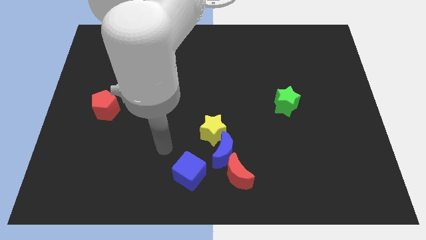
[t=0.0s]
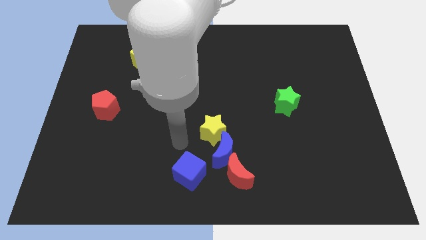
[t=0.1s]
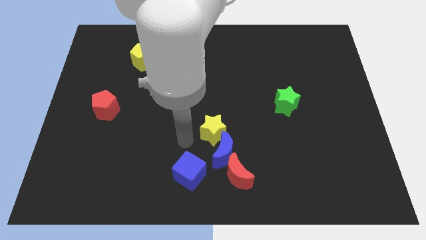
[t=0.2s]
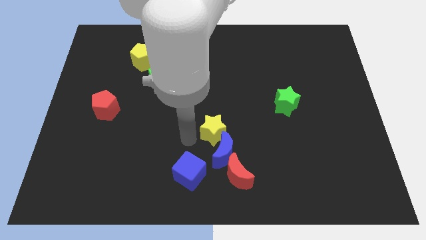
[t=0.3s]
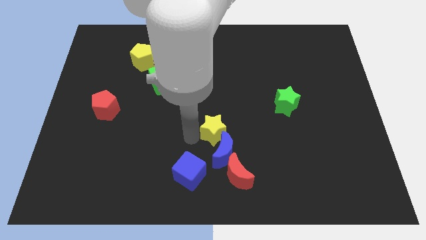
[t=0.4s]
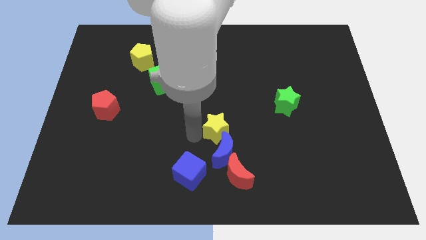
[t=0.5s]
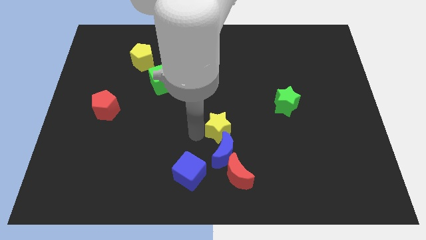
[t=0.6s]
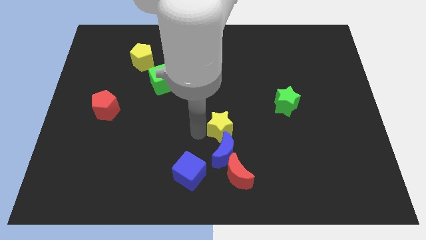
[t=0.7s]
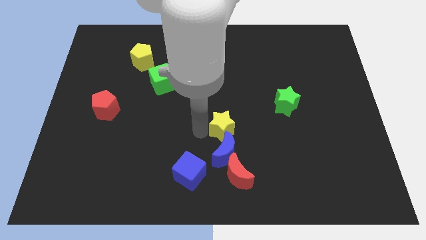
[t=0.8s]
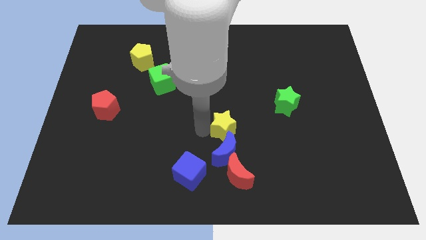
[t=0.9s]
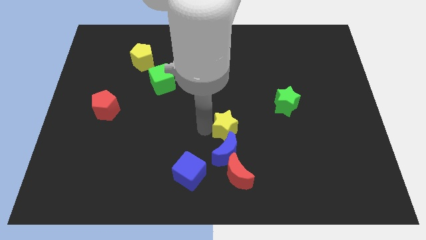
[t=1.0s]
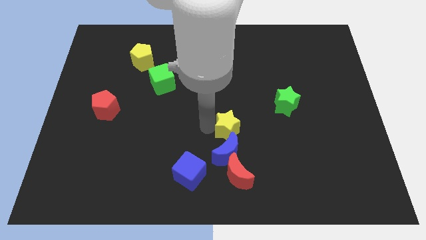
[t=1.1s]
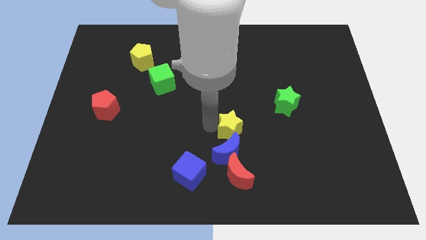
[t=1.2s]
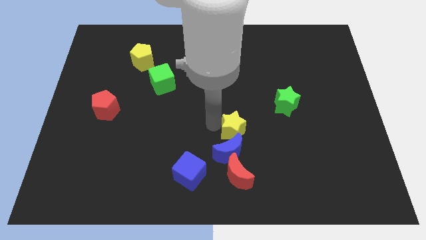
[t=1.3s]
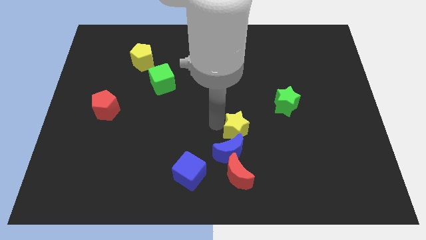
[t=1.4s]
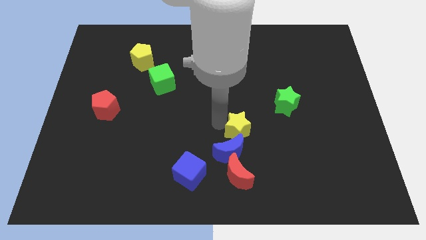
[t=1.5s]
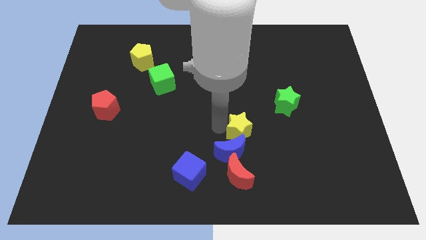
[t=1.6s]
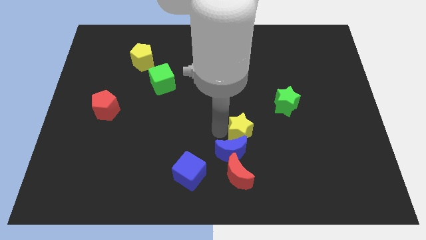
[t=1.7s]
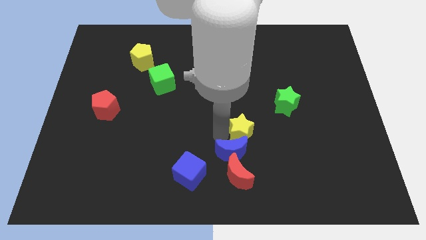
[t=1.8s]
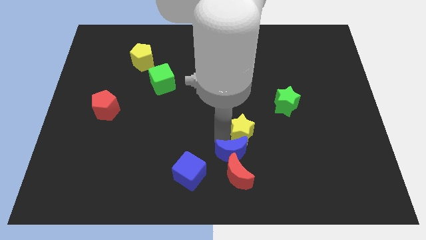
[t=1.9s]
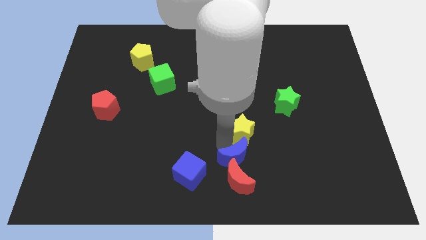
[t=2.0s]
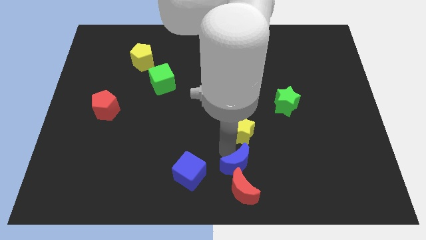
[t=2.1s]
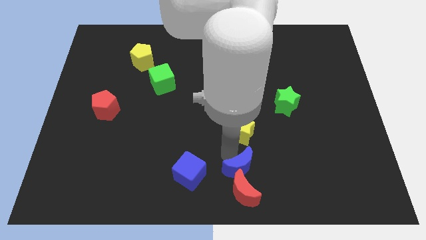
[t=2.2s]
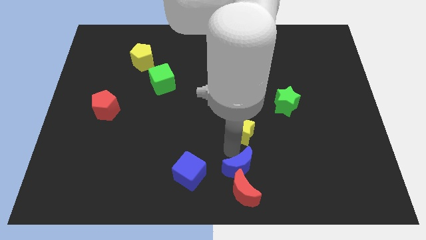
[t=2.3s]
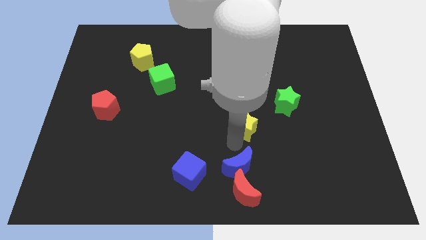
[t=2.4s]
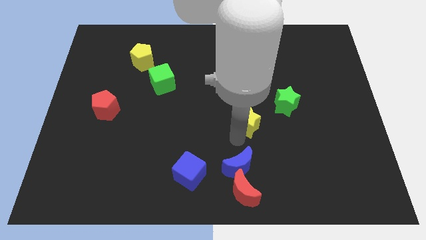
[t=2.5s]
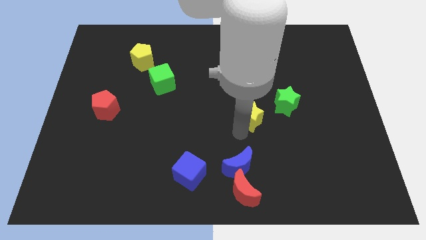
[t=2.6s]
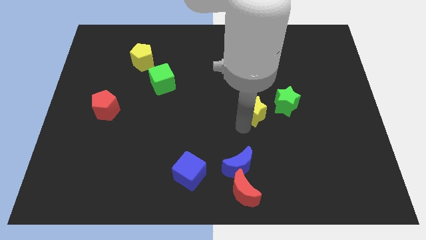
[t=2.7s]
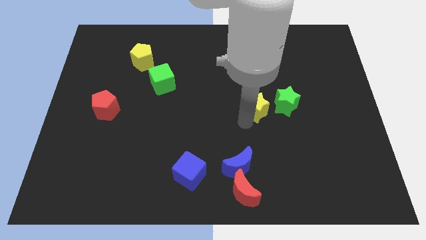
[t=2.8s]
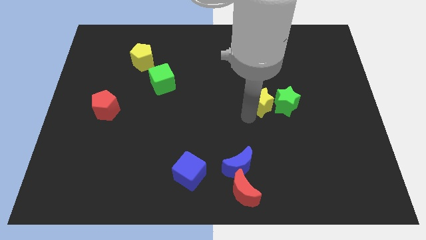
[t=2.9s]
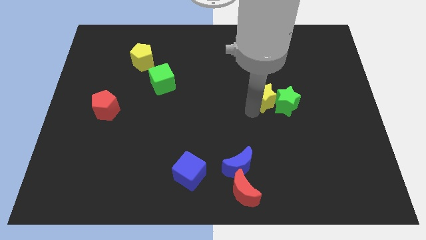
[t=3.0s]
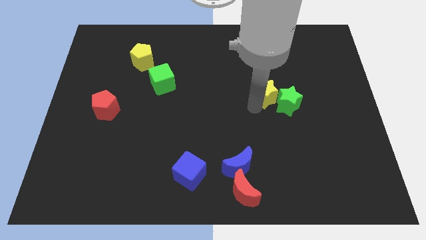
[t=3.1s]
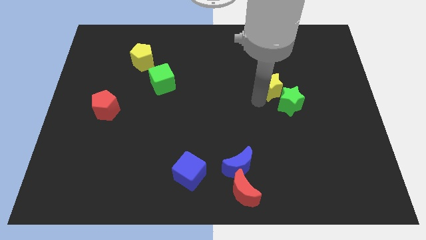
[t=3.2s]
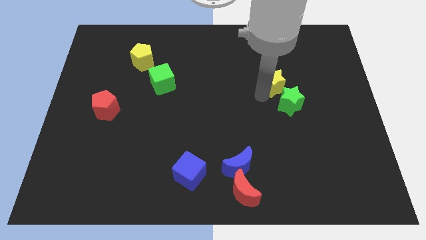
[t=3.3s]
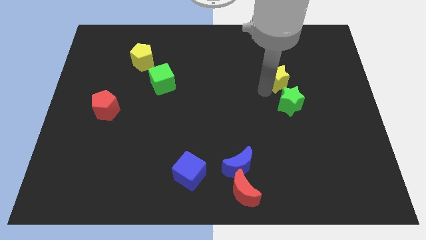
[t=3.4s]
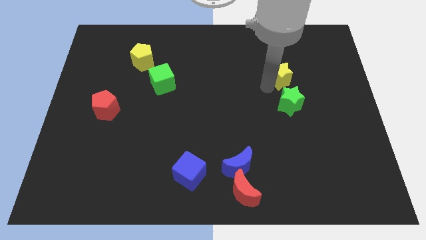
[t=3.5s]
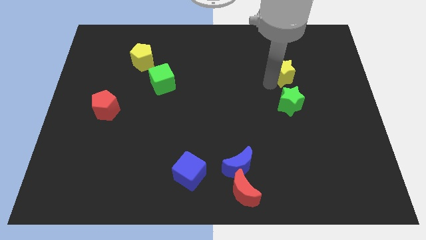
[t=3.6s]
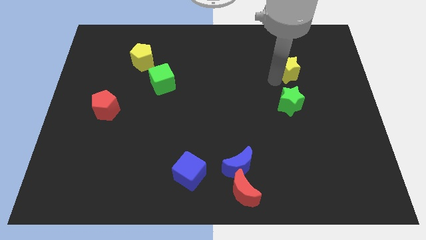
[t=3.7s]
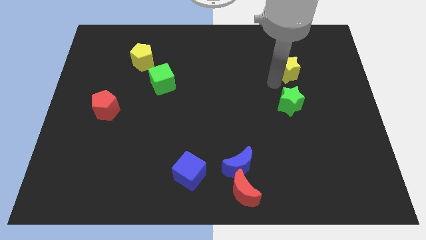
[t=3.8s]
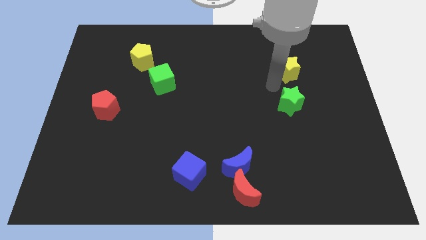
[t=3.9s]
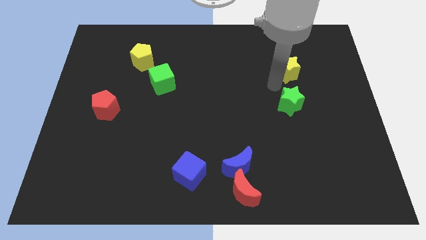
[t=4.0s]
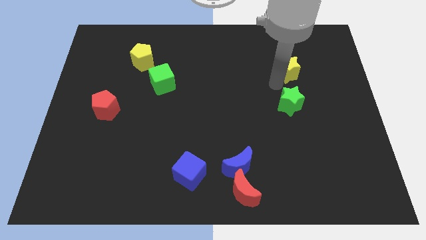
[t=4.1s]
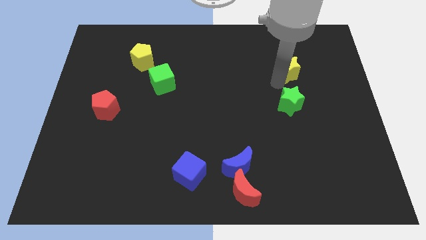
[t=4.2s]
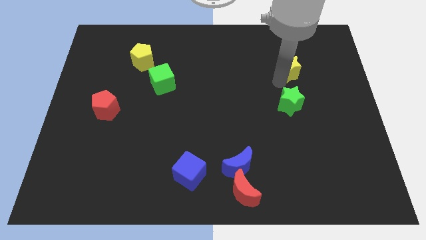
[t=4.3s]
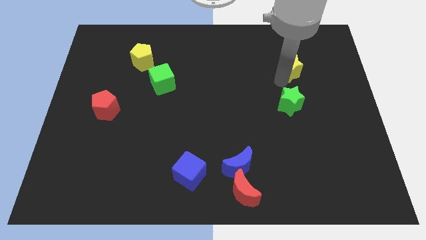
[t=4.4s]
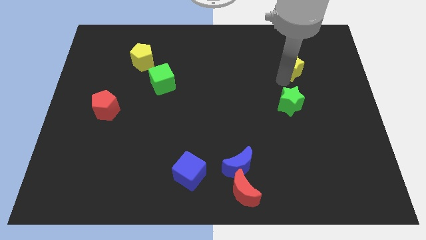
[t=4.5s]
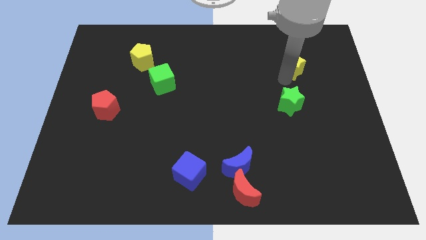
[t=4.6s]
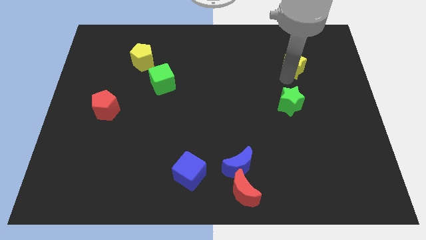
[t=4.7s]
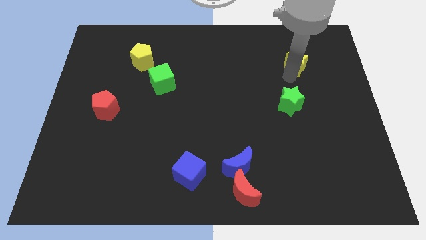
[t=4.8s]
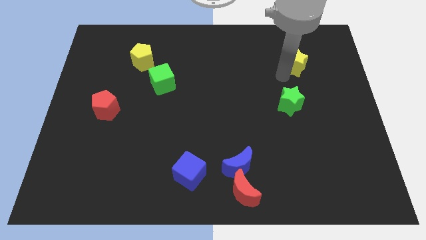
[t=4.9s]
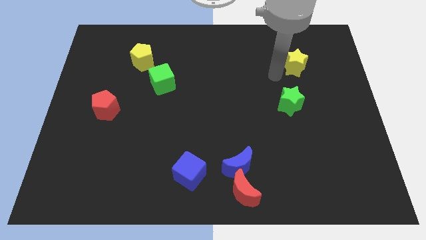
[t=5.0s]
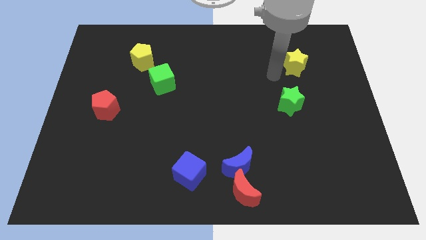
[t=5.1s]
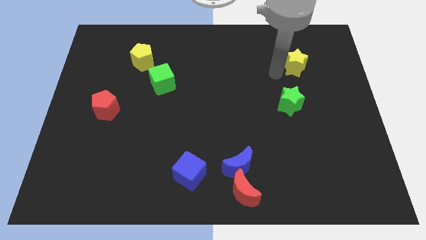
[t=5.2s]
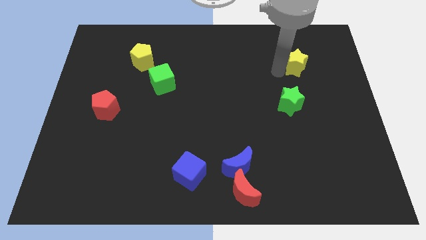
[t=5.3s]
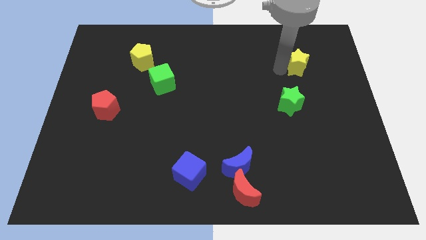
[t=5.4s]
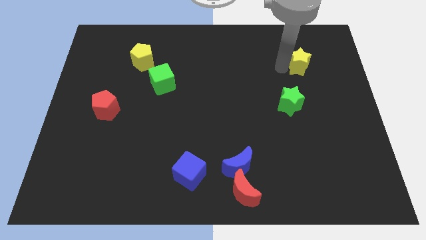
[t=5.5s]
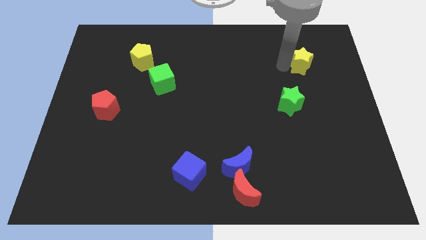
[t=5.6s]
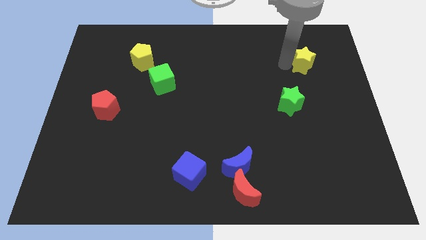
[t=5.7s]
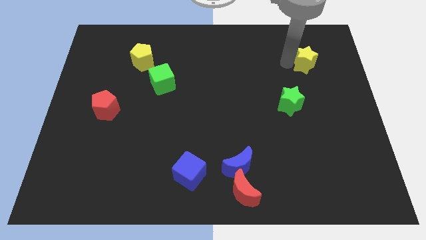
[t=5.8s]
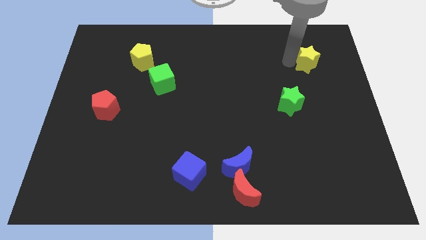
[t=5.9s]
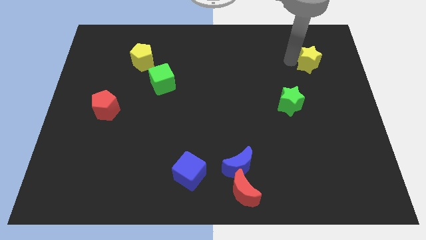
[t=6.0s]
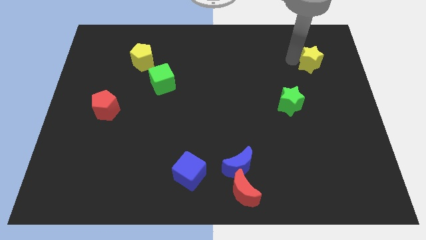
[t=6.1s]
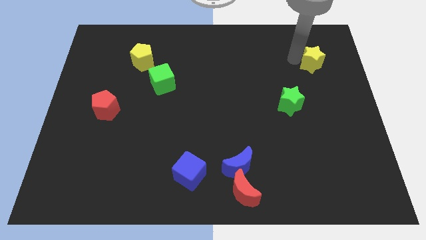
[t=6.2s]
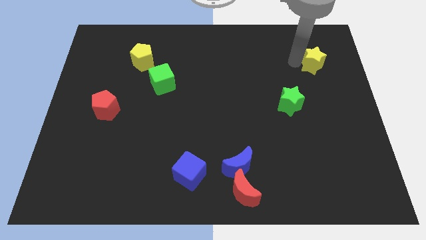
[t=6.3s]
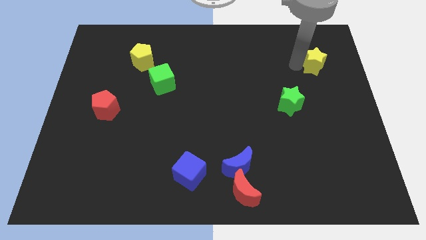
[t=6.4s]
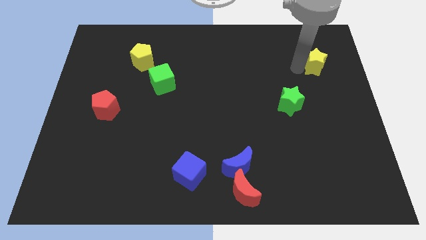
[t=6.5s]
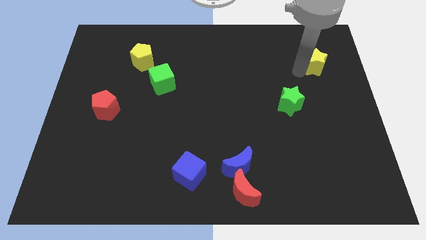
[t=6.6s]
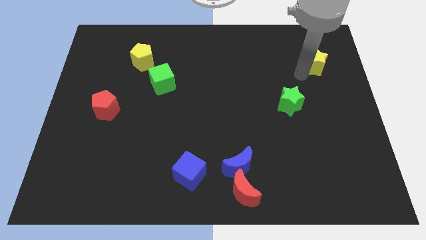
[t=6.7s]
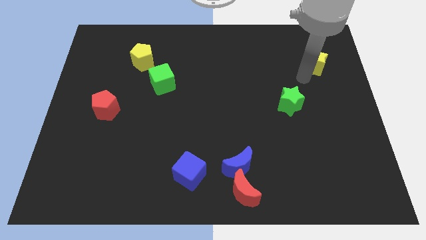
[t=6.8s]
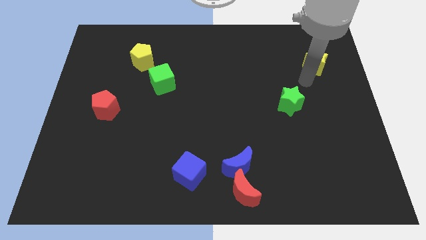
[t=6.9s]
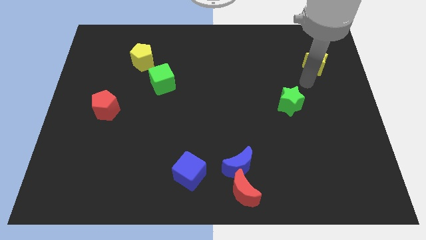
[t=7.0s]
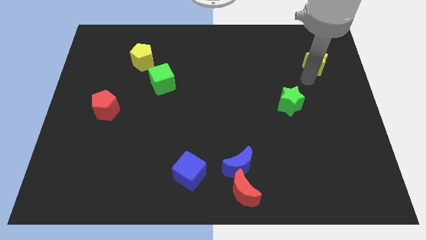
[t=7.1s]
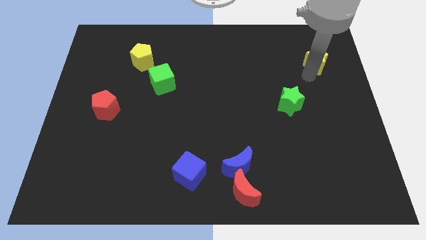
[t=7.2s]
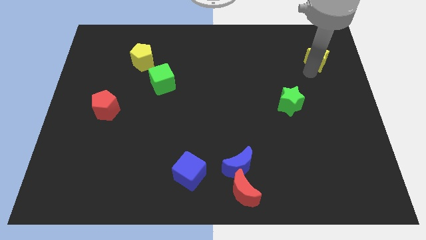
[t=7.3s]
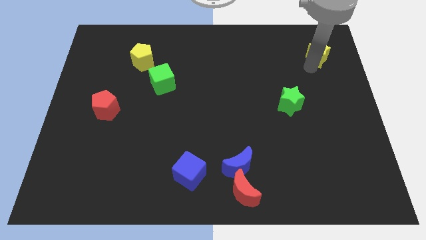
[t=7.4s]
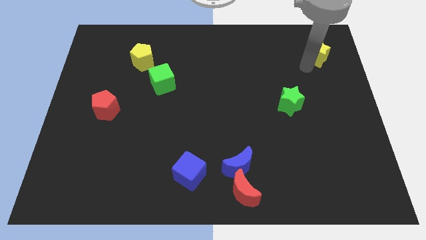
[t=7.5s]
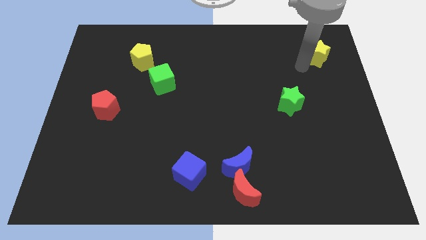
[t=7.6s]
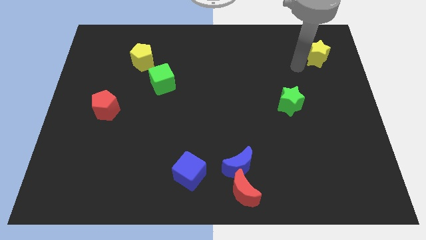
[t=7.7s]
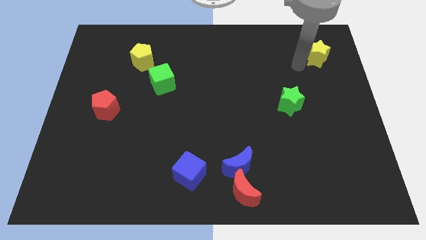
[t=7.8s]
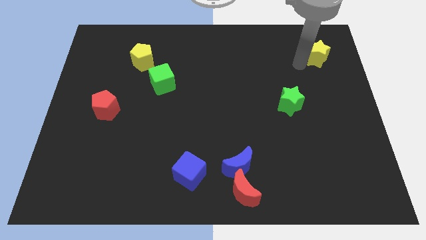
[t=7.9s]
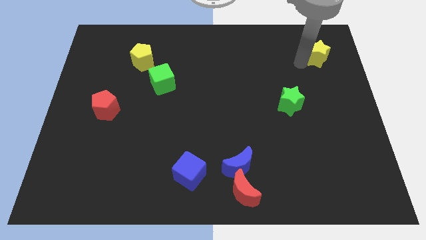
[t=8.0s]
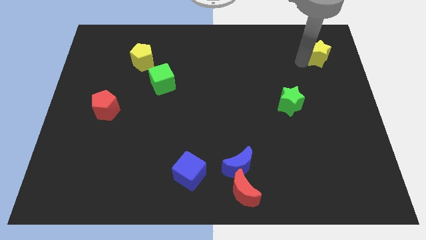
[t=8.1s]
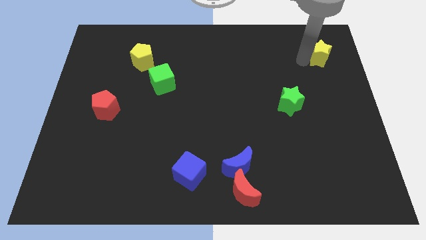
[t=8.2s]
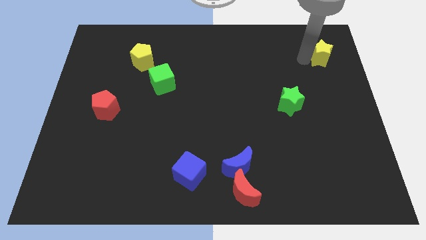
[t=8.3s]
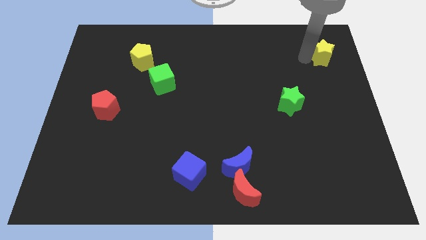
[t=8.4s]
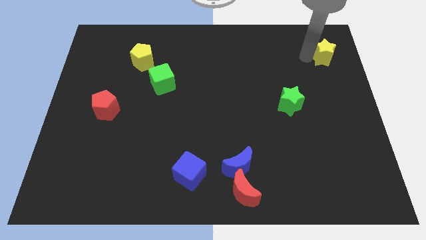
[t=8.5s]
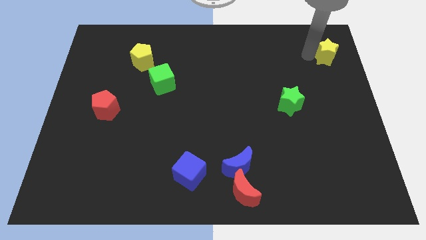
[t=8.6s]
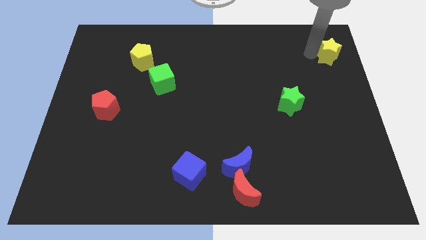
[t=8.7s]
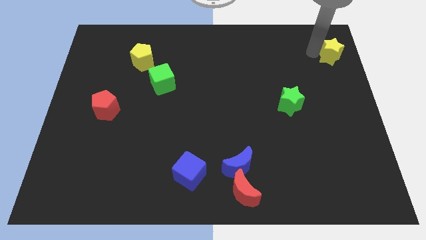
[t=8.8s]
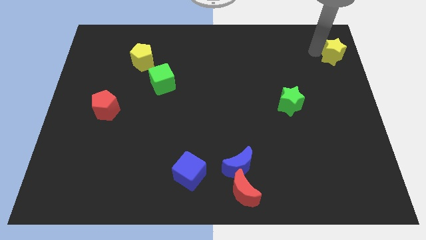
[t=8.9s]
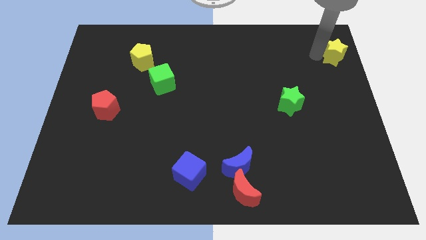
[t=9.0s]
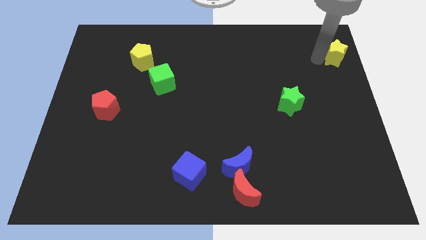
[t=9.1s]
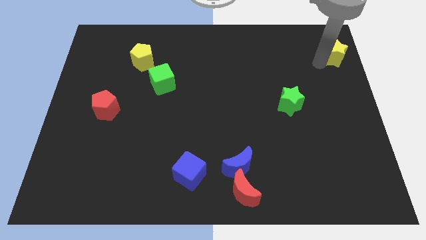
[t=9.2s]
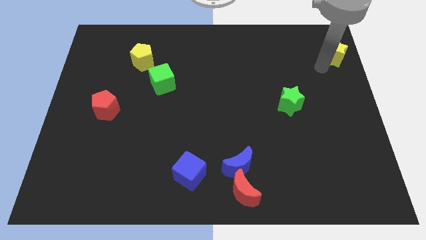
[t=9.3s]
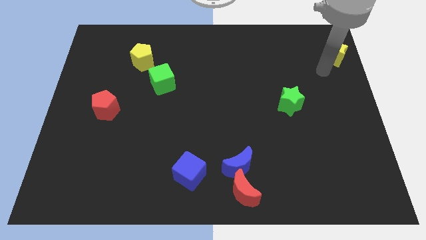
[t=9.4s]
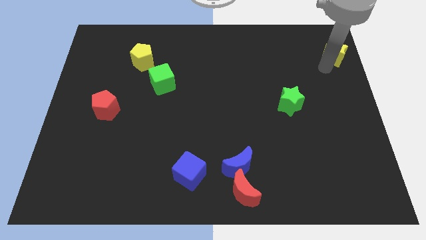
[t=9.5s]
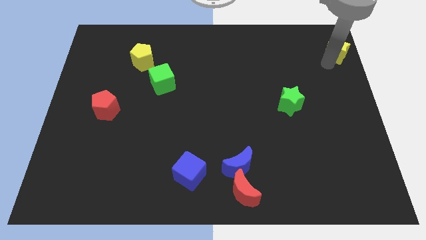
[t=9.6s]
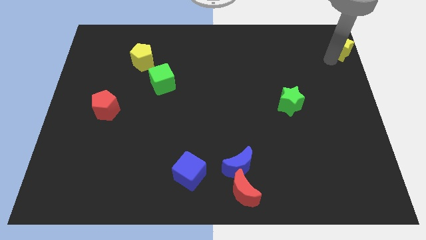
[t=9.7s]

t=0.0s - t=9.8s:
slide the yellow star to the top right
